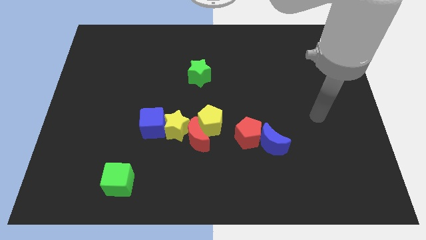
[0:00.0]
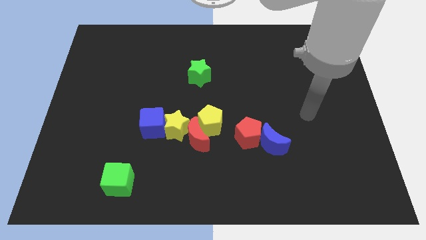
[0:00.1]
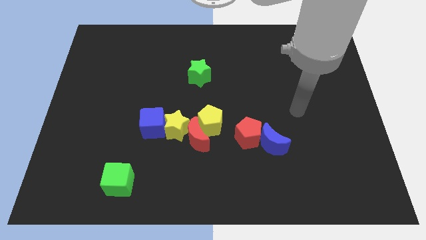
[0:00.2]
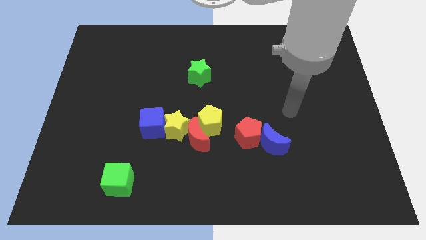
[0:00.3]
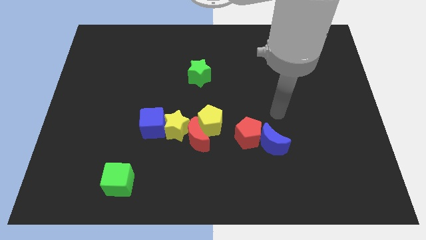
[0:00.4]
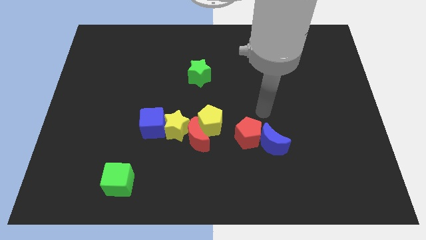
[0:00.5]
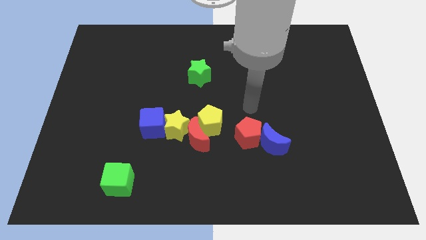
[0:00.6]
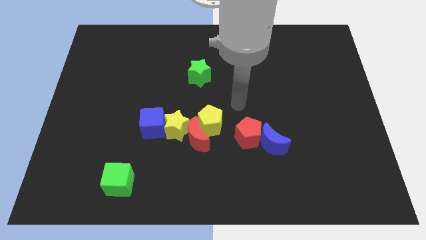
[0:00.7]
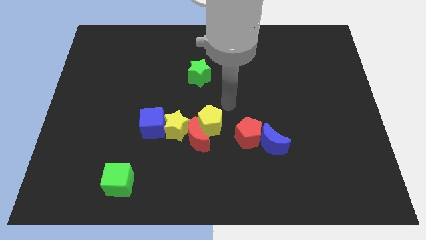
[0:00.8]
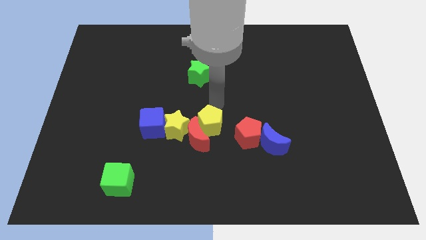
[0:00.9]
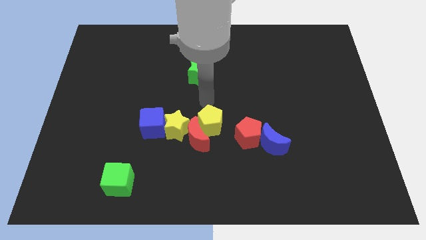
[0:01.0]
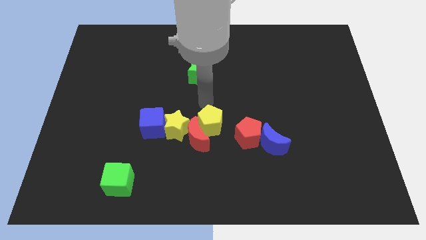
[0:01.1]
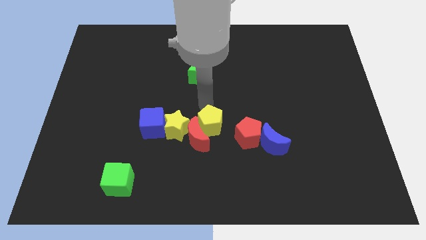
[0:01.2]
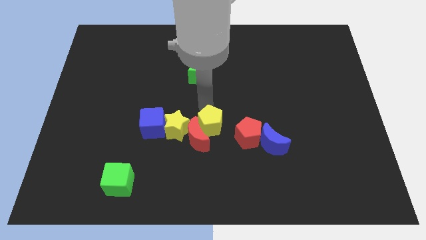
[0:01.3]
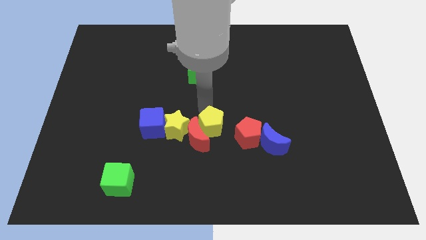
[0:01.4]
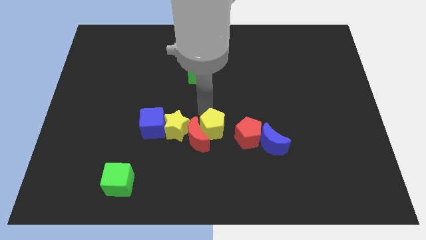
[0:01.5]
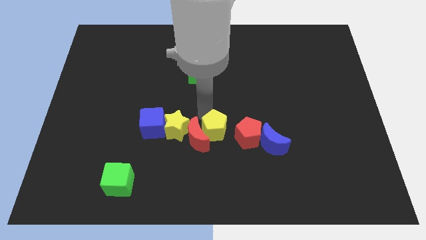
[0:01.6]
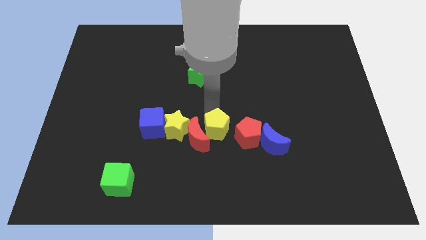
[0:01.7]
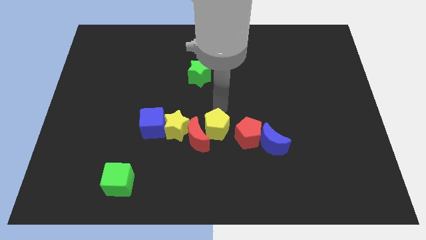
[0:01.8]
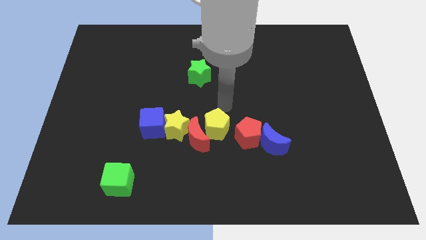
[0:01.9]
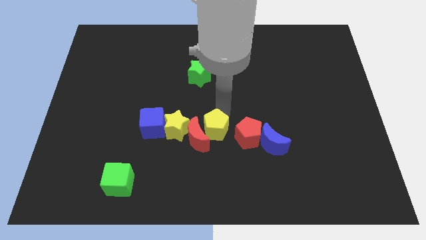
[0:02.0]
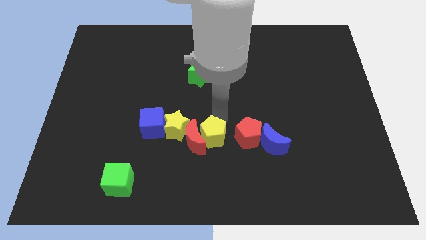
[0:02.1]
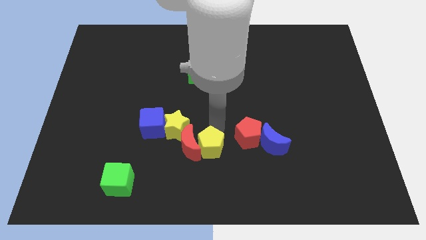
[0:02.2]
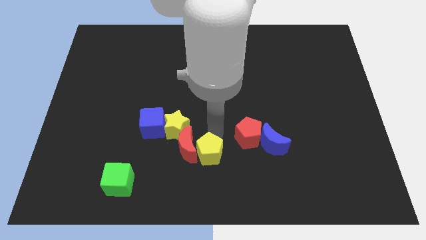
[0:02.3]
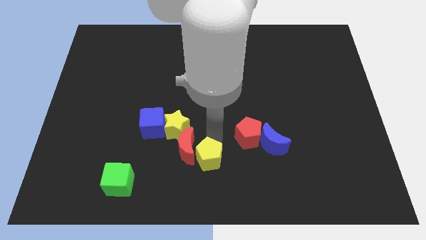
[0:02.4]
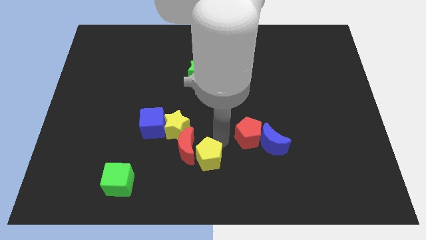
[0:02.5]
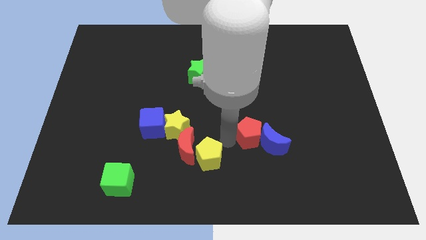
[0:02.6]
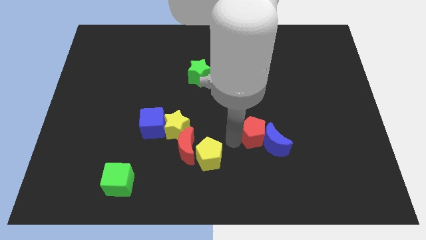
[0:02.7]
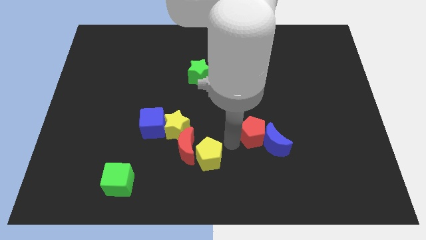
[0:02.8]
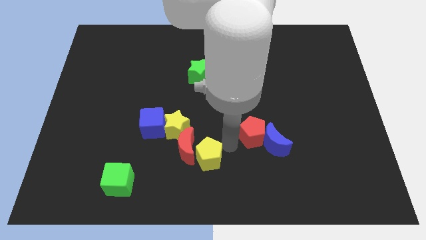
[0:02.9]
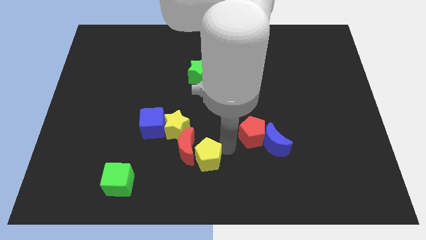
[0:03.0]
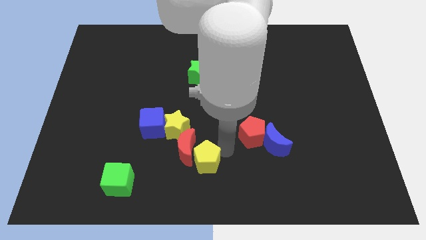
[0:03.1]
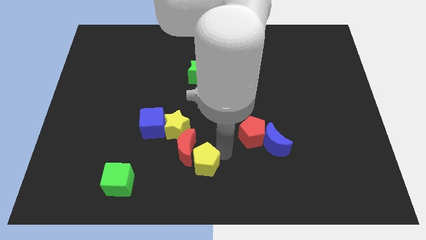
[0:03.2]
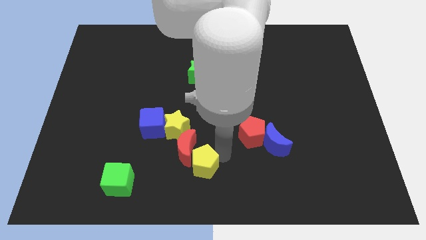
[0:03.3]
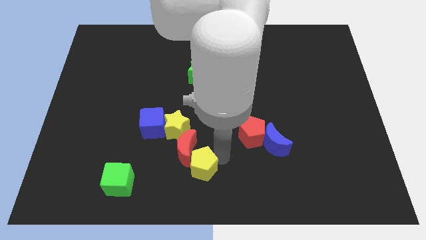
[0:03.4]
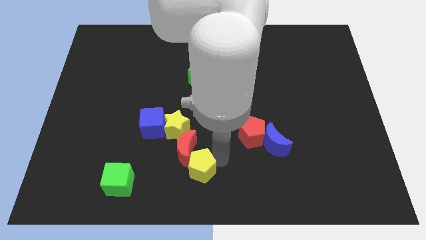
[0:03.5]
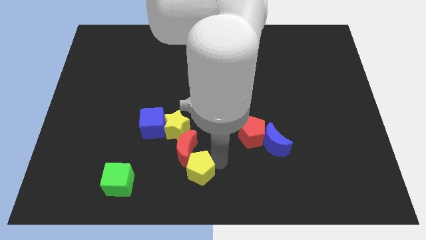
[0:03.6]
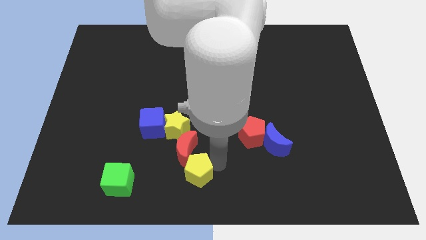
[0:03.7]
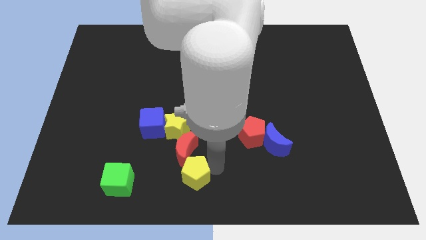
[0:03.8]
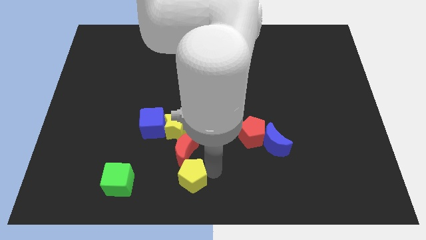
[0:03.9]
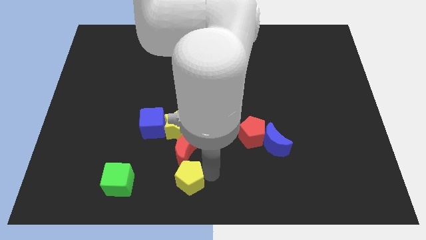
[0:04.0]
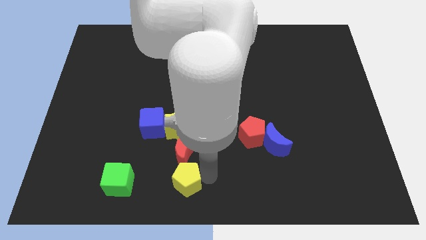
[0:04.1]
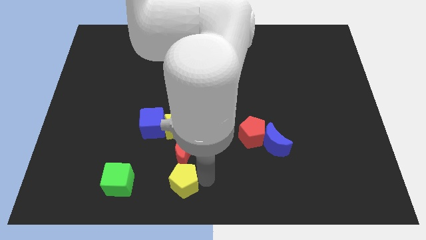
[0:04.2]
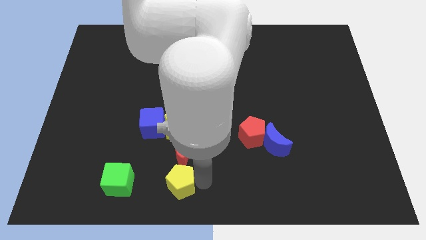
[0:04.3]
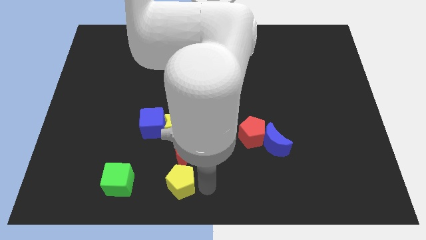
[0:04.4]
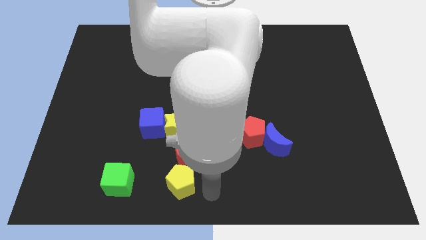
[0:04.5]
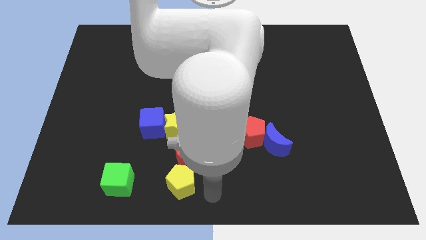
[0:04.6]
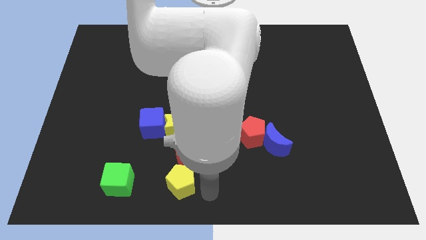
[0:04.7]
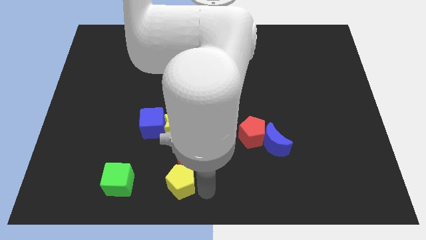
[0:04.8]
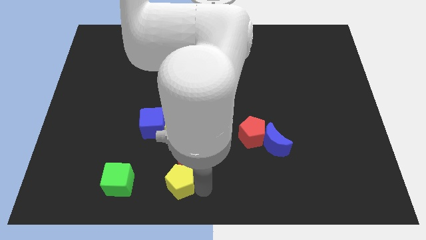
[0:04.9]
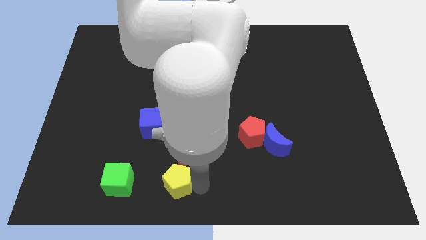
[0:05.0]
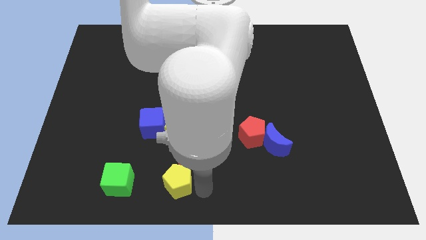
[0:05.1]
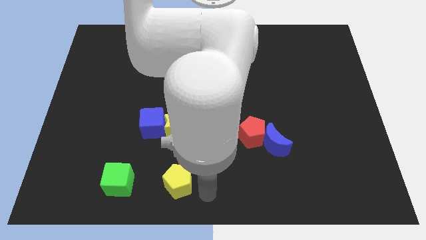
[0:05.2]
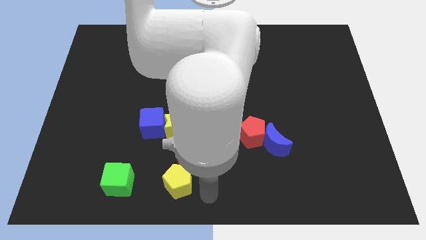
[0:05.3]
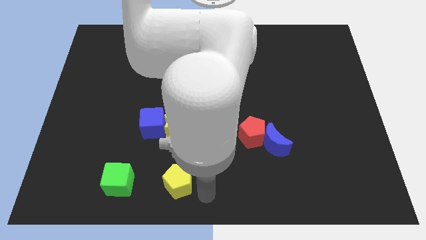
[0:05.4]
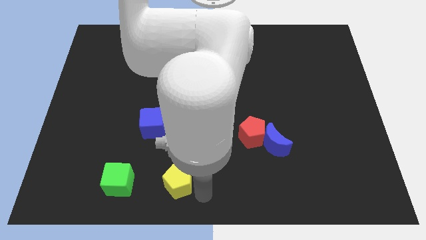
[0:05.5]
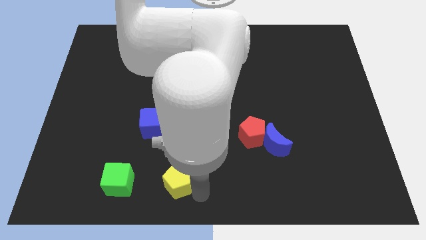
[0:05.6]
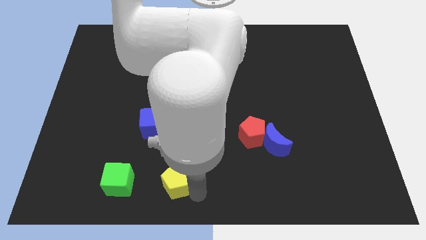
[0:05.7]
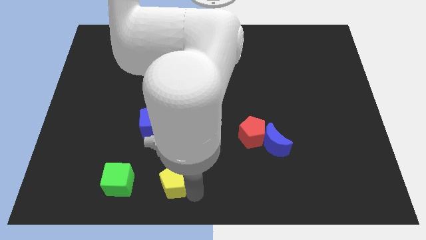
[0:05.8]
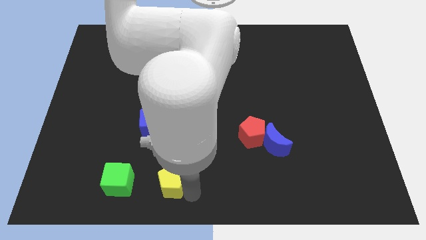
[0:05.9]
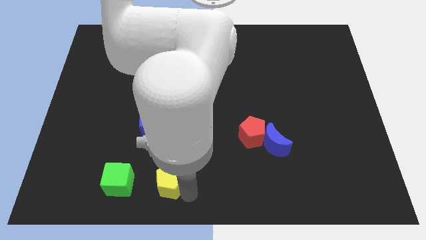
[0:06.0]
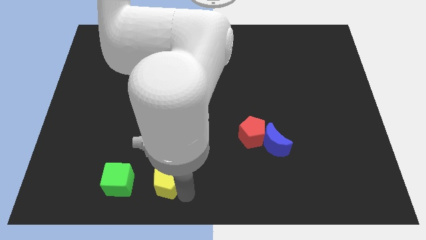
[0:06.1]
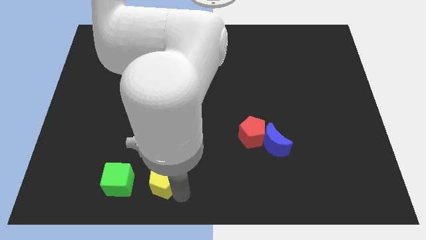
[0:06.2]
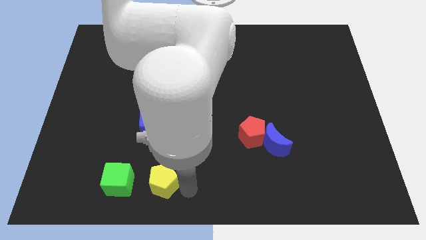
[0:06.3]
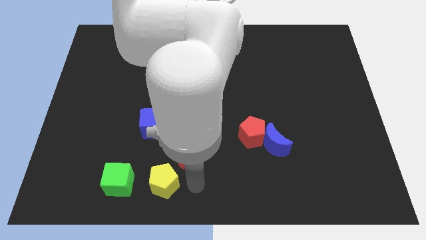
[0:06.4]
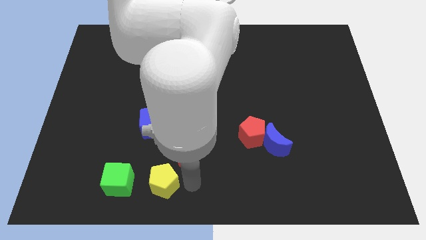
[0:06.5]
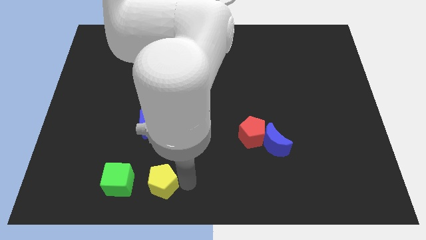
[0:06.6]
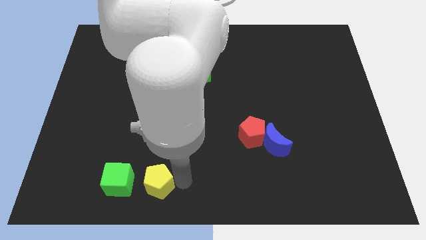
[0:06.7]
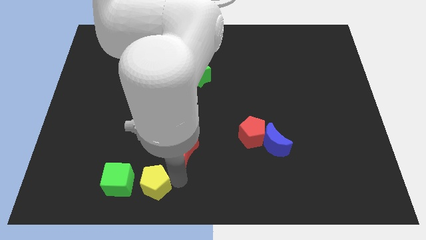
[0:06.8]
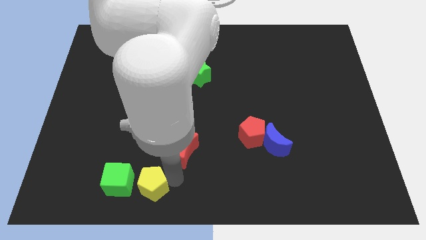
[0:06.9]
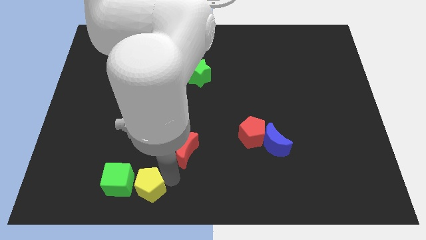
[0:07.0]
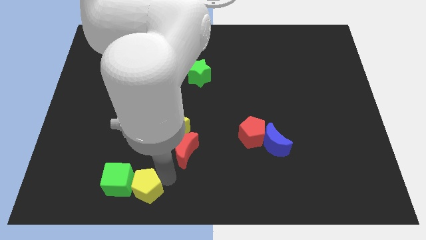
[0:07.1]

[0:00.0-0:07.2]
move the yellow pentagon close to the green cube
